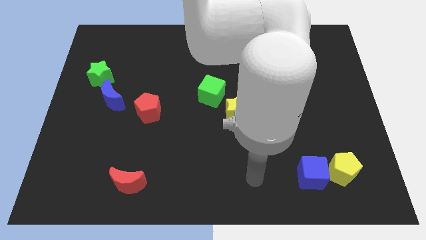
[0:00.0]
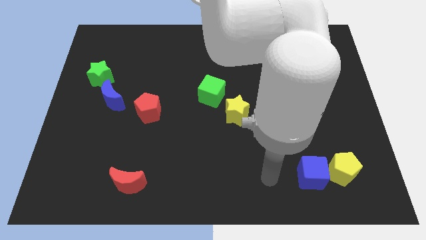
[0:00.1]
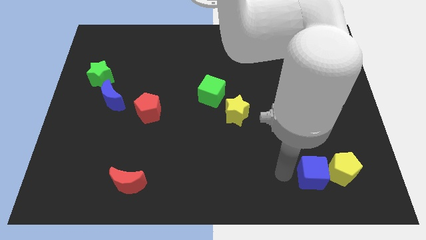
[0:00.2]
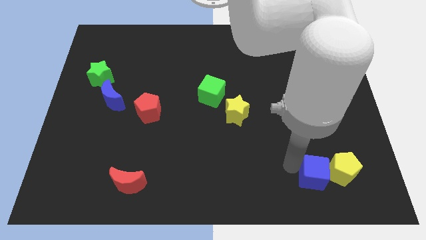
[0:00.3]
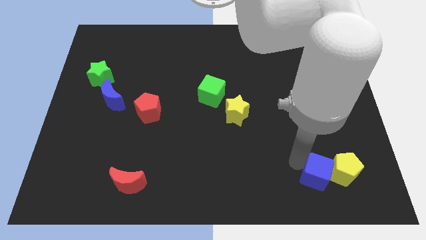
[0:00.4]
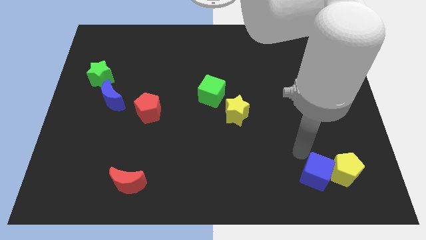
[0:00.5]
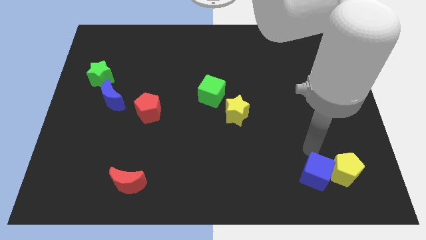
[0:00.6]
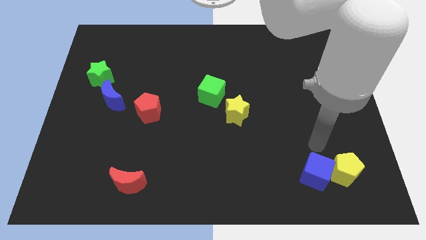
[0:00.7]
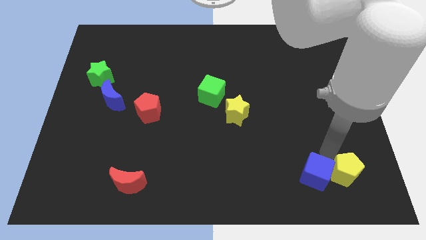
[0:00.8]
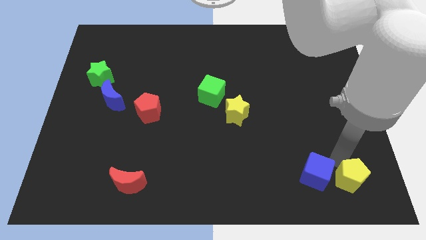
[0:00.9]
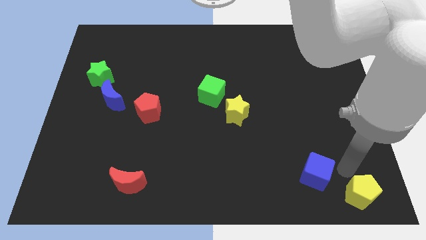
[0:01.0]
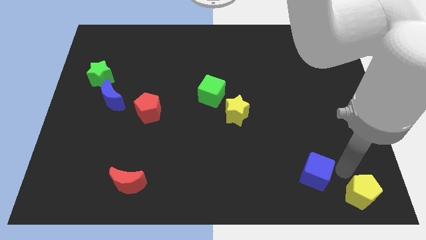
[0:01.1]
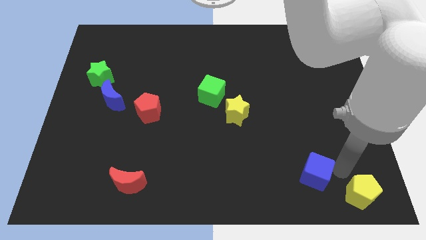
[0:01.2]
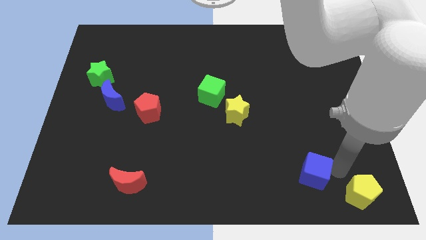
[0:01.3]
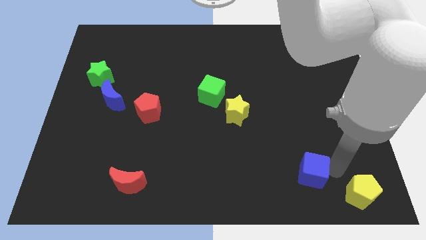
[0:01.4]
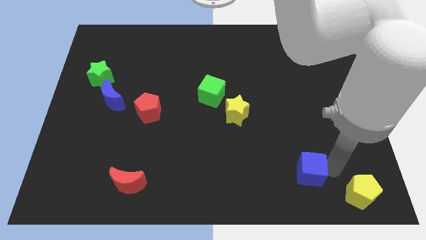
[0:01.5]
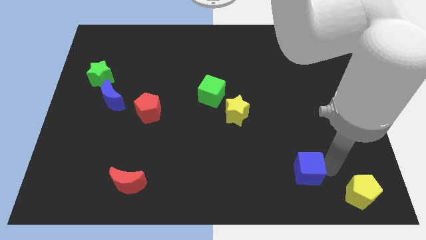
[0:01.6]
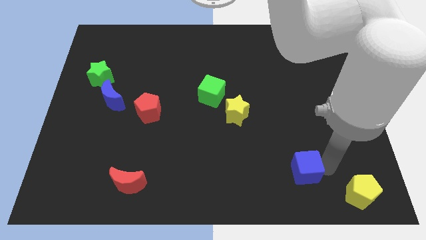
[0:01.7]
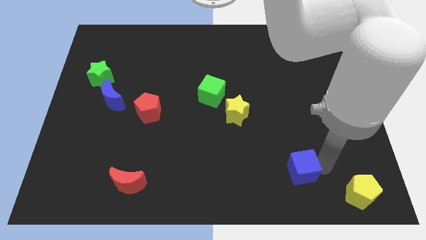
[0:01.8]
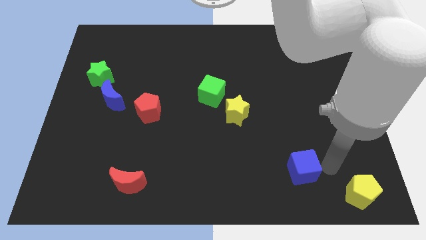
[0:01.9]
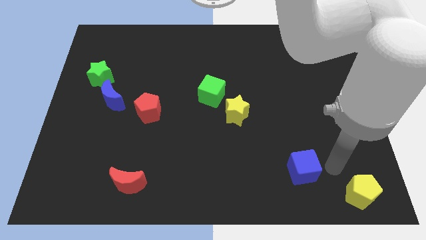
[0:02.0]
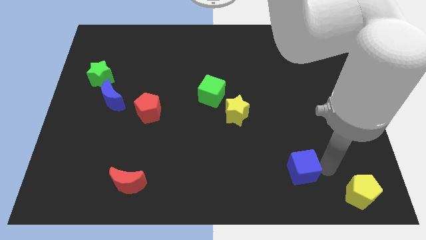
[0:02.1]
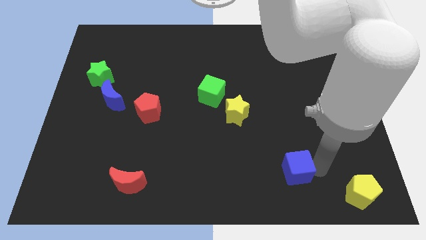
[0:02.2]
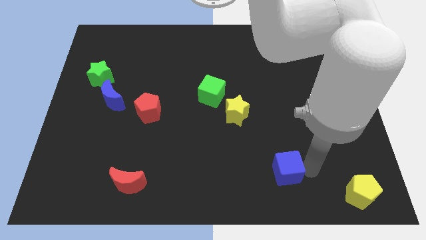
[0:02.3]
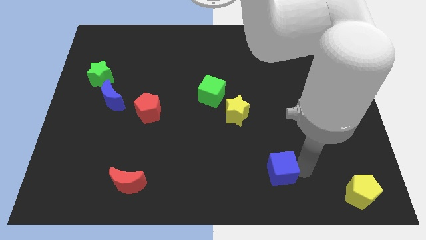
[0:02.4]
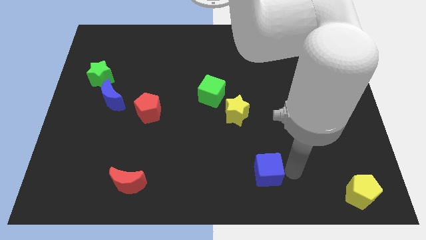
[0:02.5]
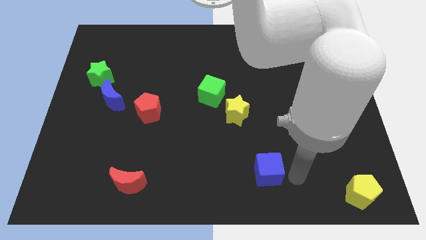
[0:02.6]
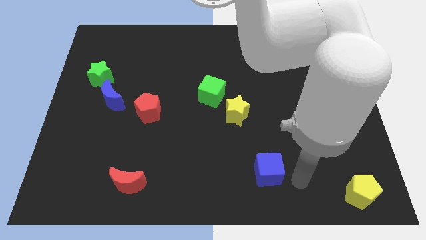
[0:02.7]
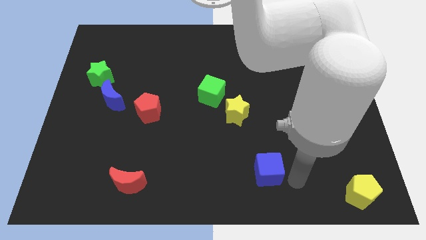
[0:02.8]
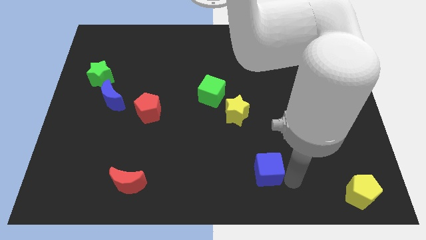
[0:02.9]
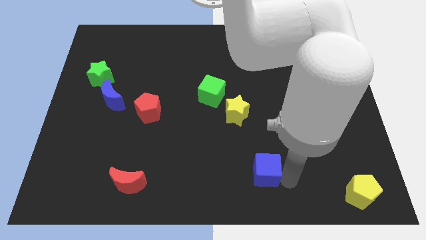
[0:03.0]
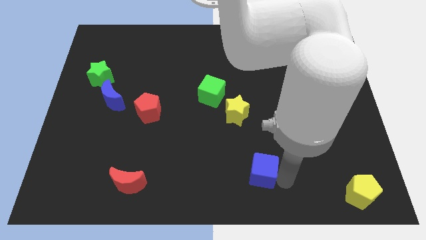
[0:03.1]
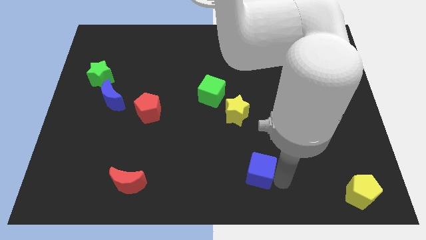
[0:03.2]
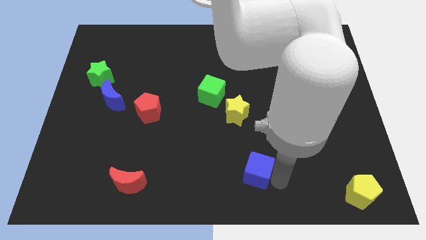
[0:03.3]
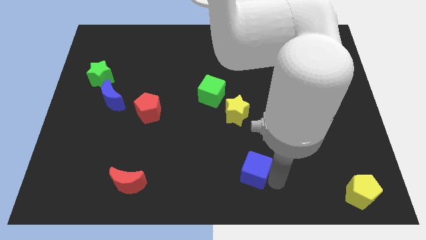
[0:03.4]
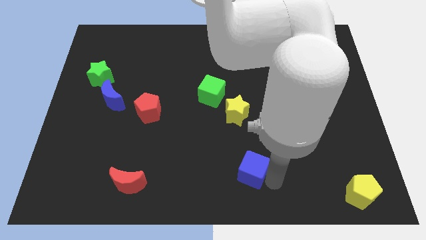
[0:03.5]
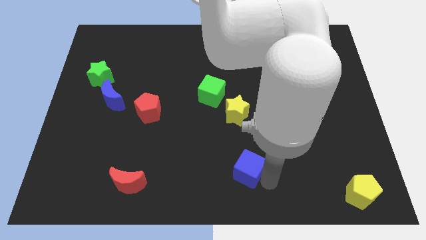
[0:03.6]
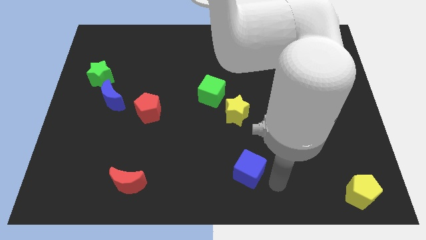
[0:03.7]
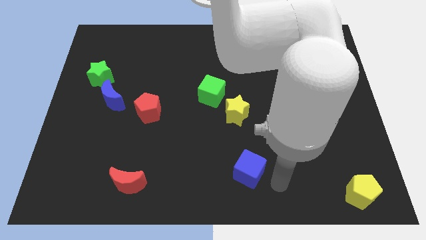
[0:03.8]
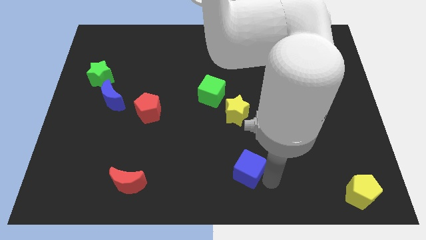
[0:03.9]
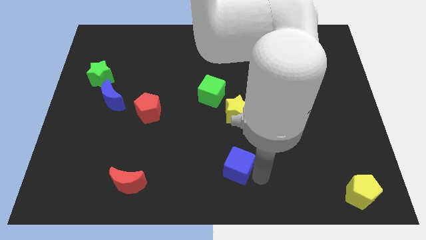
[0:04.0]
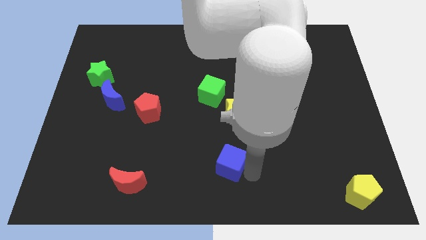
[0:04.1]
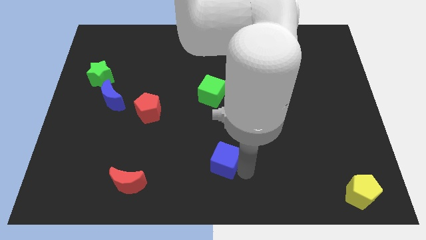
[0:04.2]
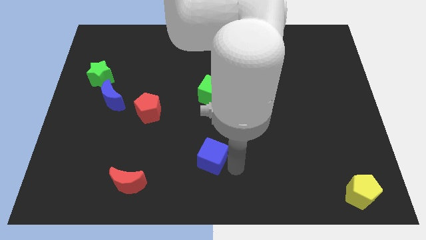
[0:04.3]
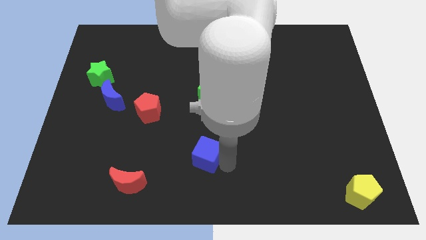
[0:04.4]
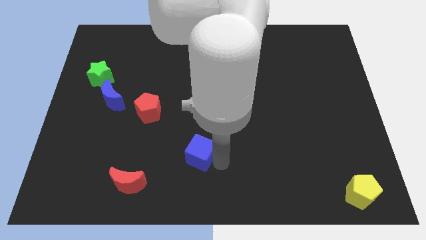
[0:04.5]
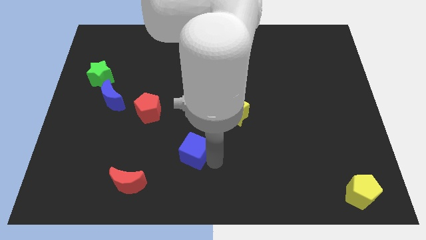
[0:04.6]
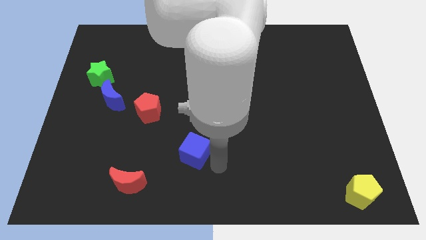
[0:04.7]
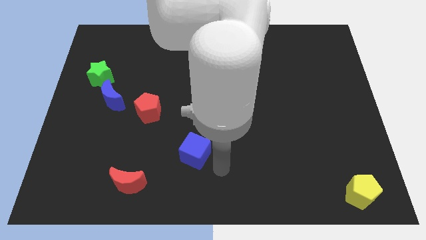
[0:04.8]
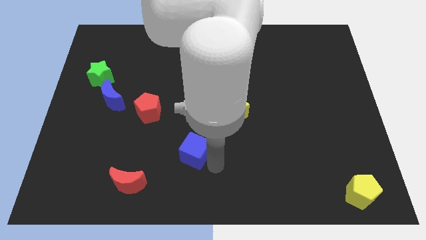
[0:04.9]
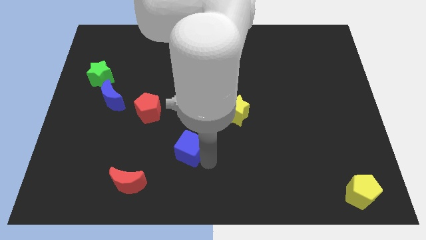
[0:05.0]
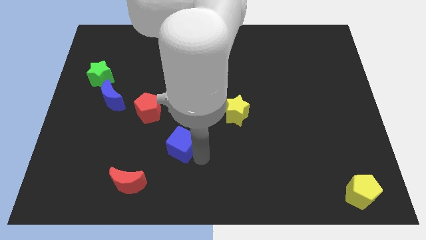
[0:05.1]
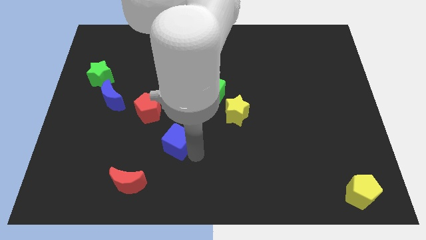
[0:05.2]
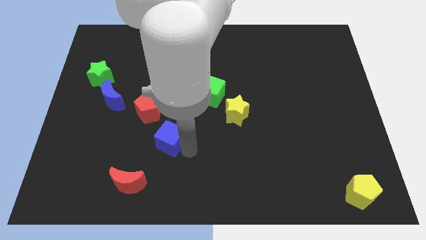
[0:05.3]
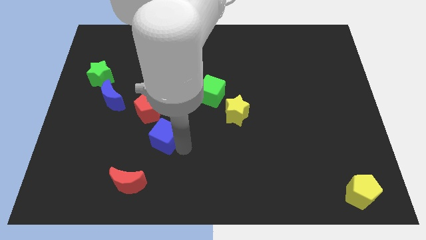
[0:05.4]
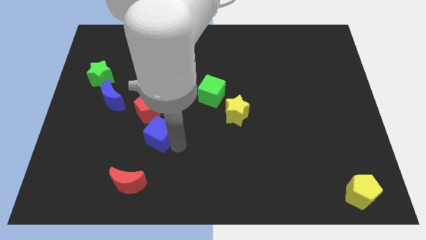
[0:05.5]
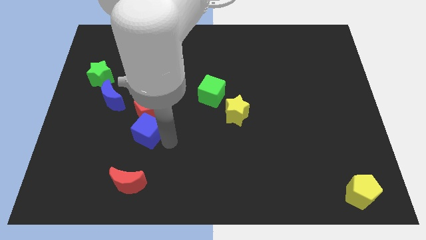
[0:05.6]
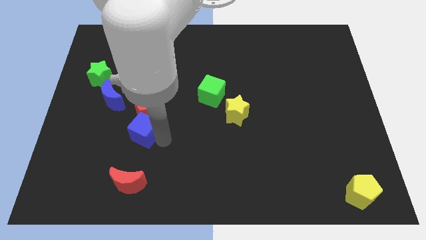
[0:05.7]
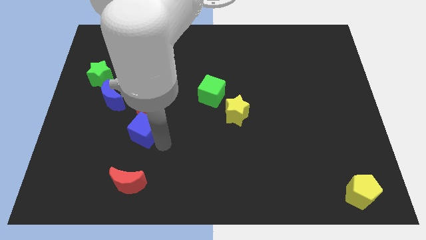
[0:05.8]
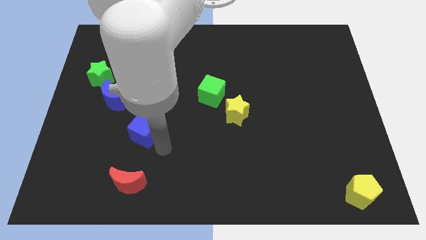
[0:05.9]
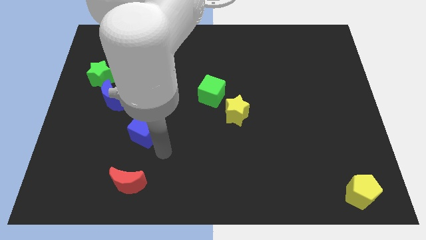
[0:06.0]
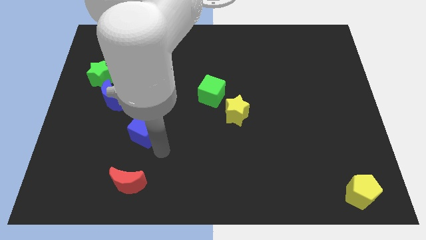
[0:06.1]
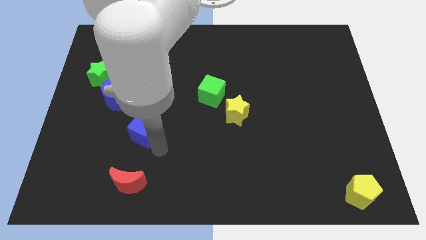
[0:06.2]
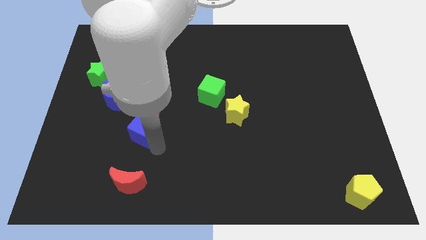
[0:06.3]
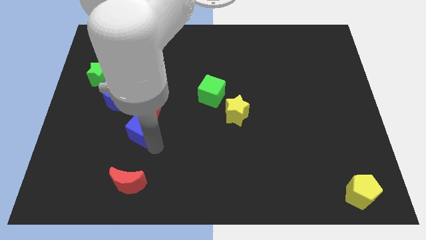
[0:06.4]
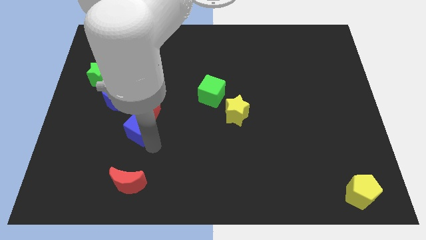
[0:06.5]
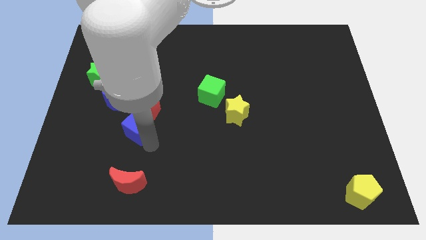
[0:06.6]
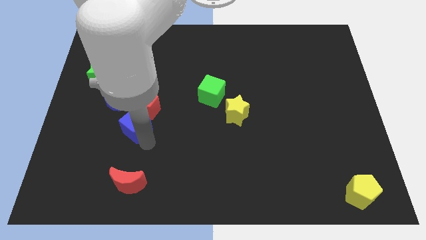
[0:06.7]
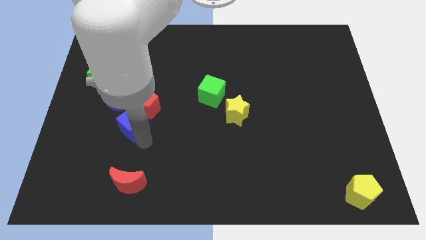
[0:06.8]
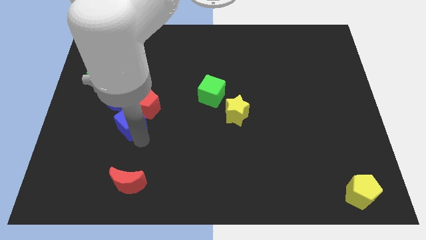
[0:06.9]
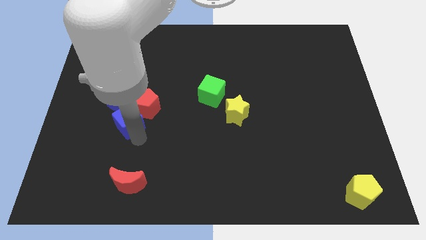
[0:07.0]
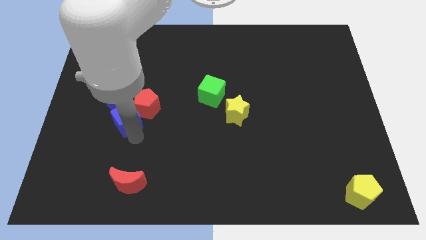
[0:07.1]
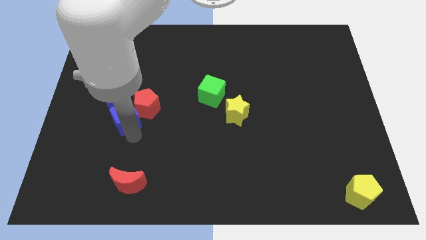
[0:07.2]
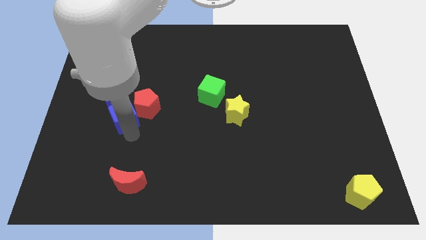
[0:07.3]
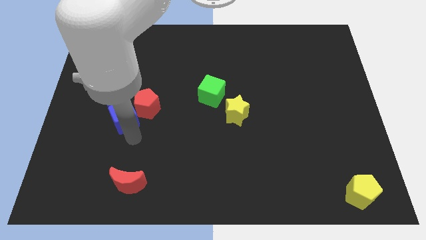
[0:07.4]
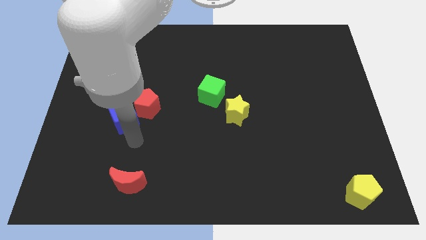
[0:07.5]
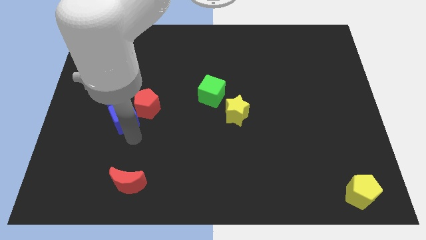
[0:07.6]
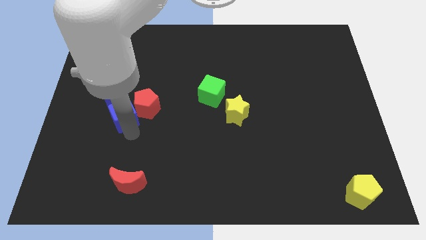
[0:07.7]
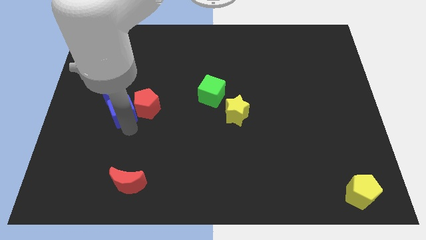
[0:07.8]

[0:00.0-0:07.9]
move the blue cube to the blue moon
